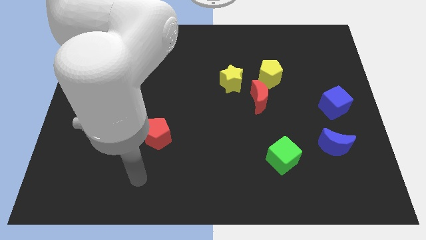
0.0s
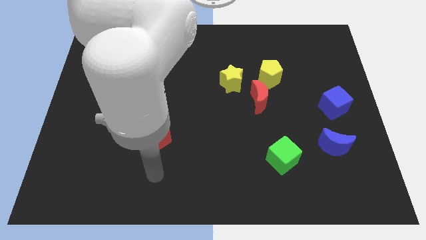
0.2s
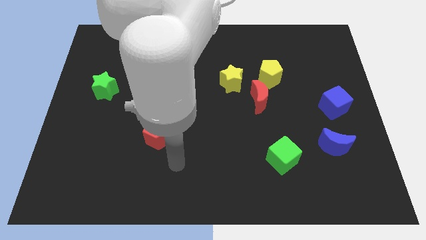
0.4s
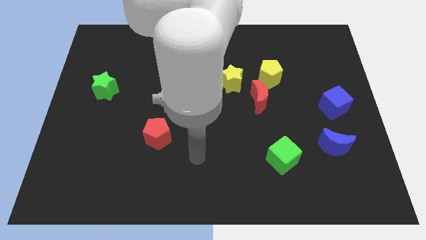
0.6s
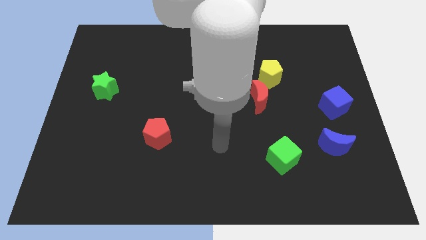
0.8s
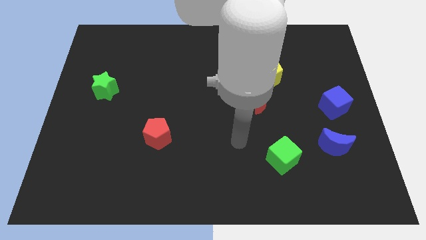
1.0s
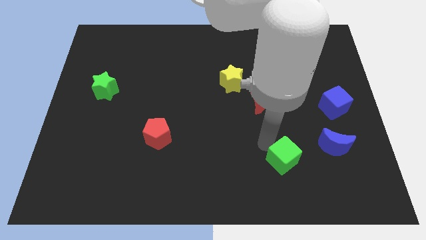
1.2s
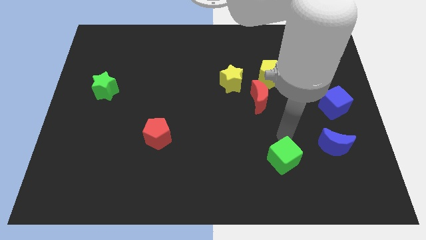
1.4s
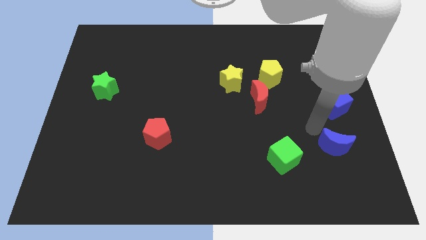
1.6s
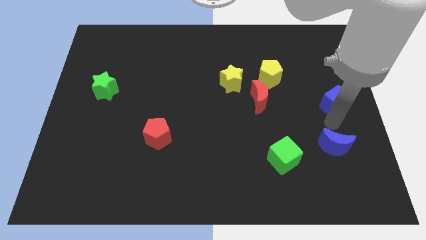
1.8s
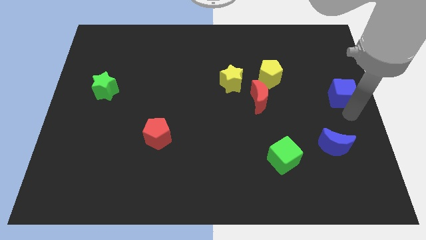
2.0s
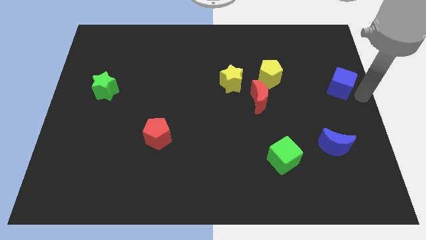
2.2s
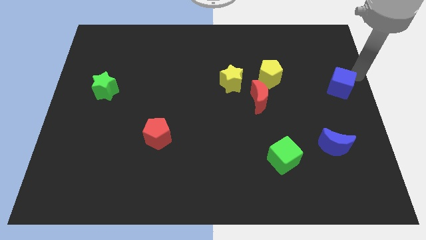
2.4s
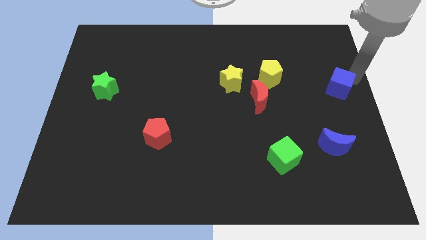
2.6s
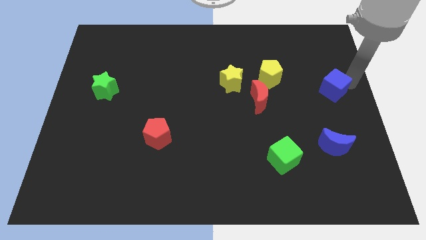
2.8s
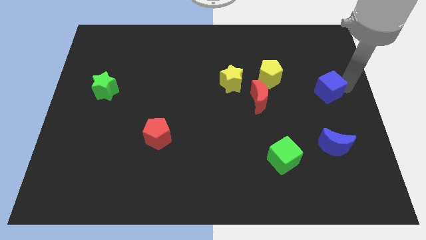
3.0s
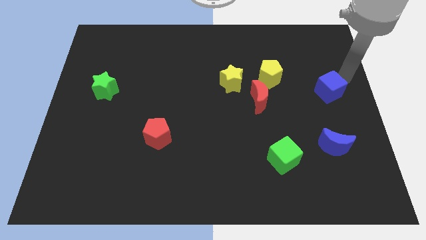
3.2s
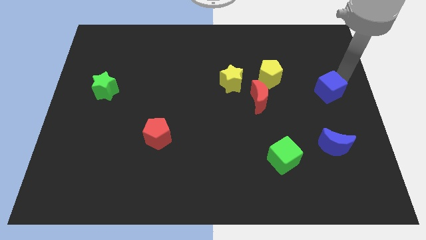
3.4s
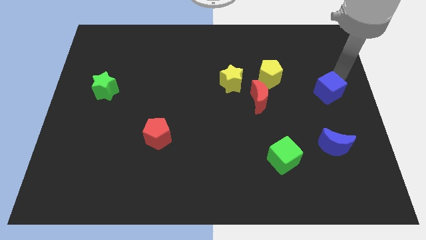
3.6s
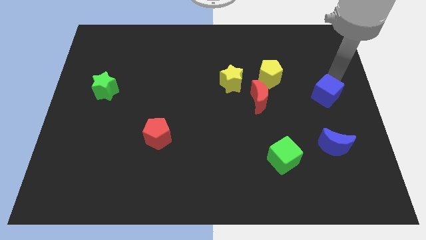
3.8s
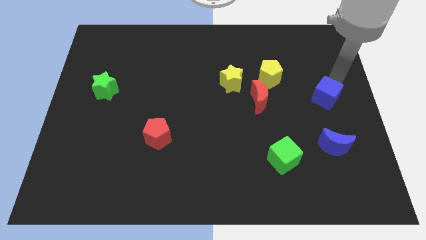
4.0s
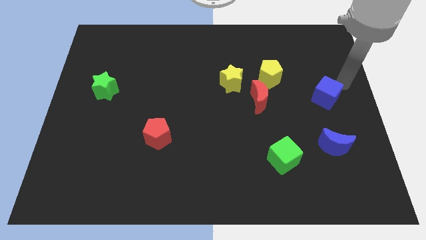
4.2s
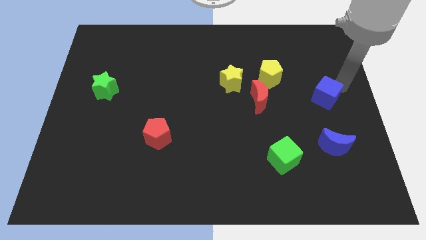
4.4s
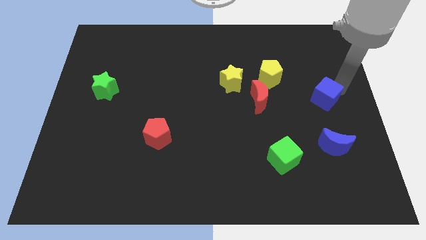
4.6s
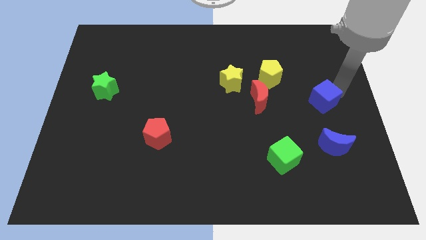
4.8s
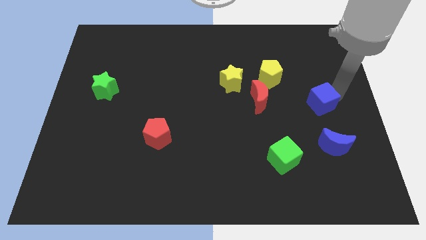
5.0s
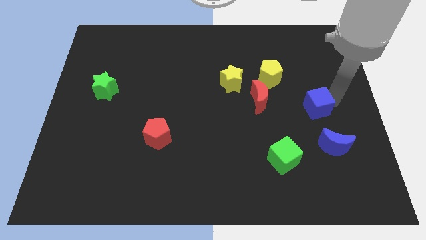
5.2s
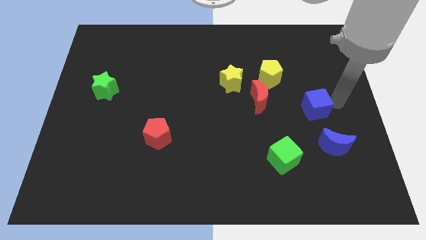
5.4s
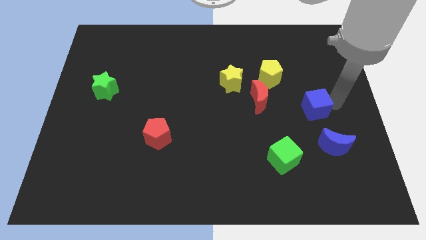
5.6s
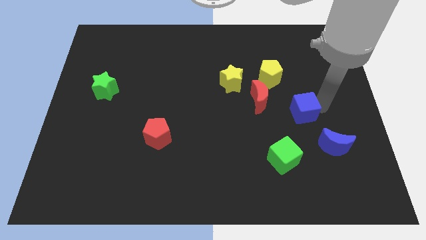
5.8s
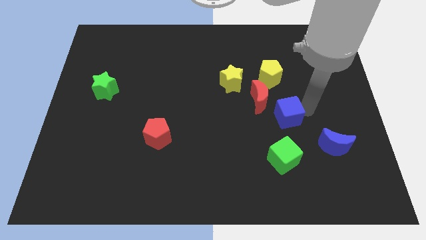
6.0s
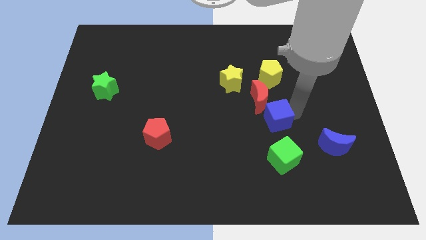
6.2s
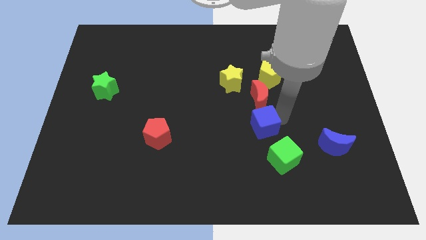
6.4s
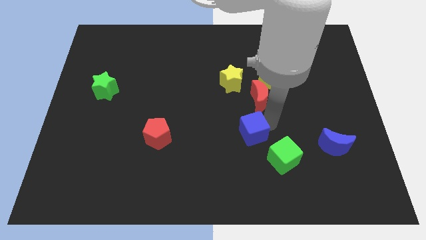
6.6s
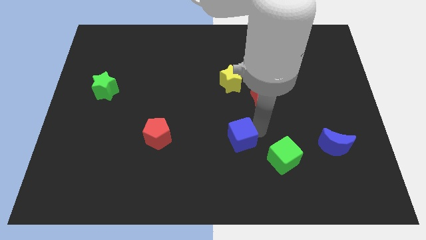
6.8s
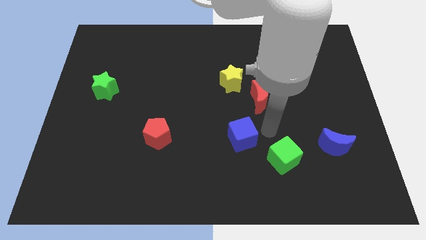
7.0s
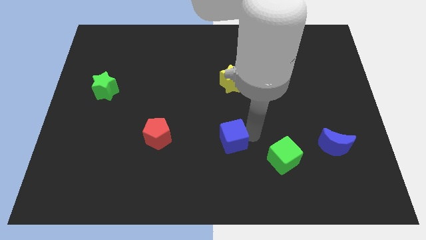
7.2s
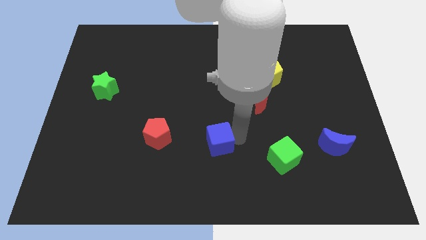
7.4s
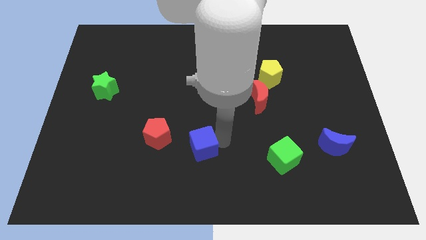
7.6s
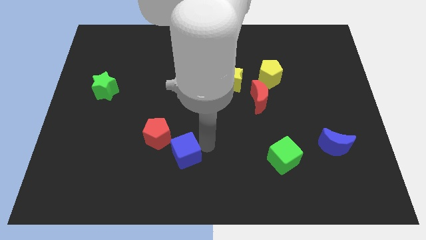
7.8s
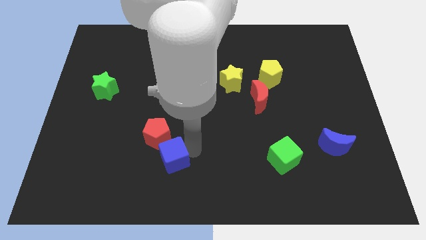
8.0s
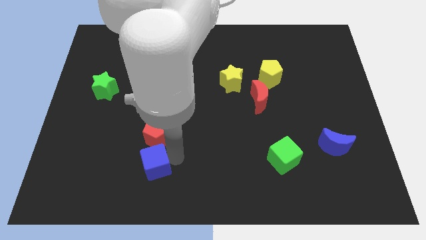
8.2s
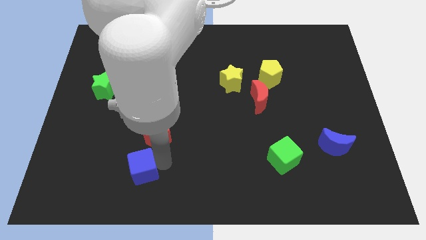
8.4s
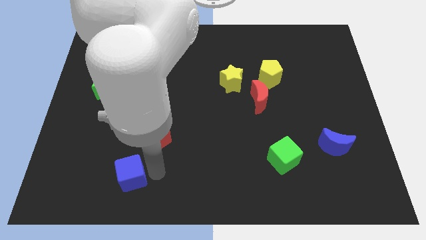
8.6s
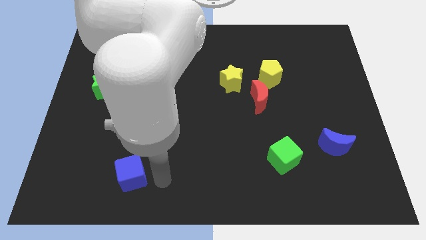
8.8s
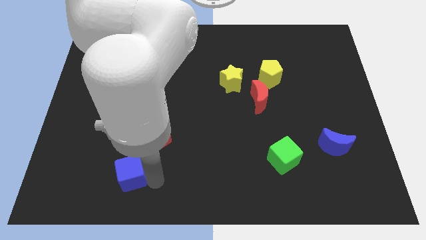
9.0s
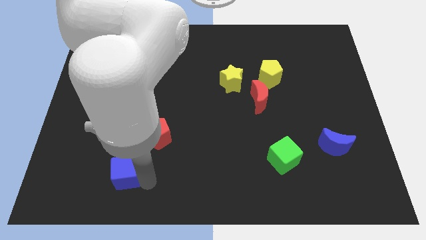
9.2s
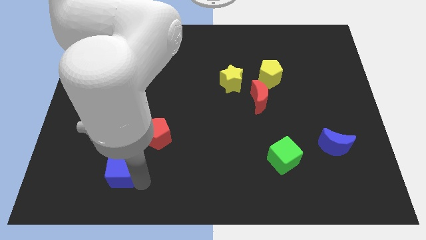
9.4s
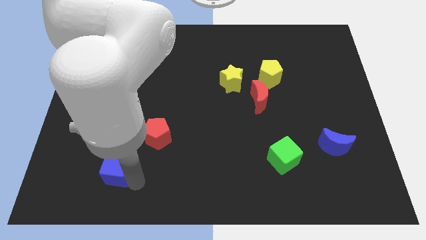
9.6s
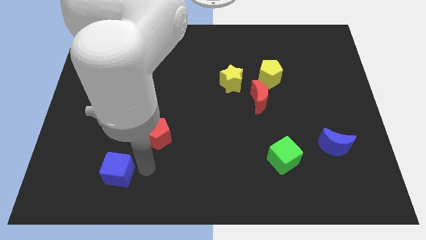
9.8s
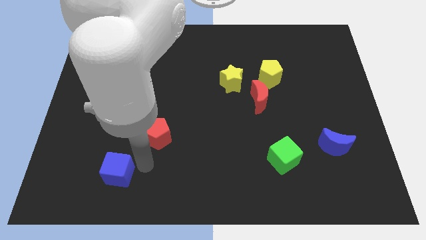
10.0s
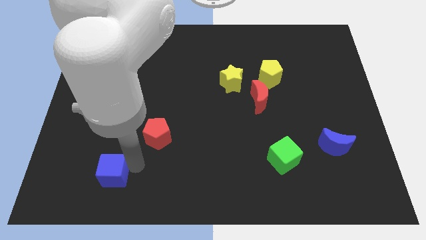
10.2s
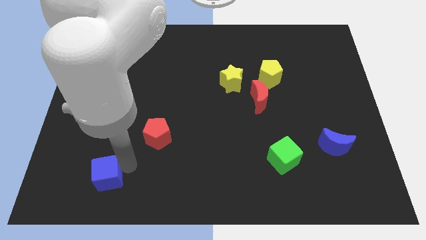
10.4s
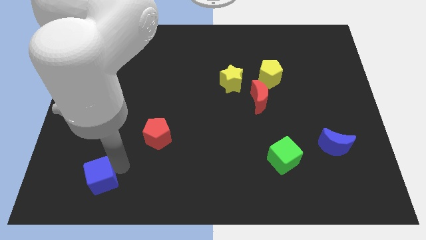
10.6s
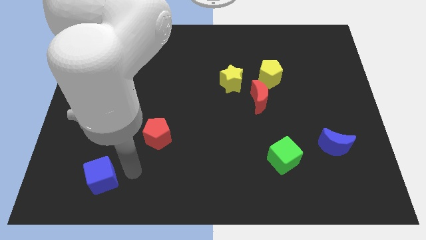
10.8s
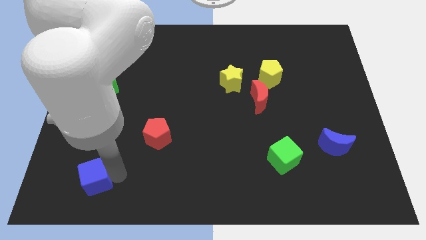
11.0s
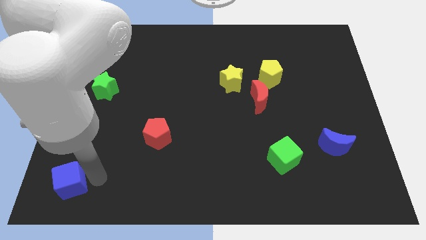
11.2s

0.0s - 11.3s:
move the blue cube to the lower left corner

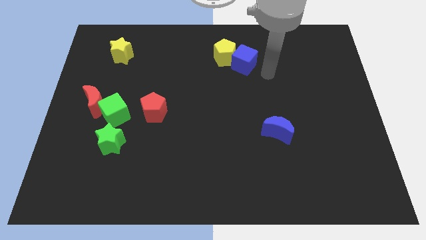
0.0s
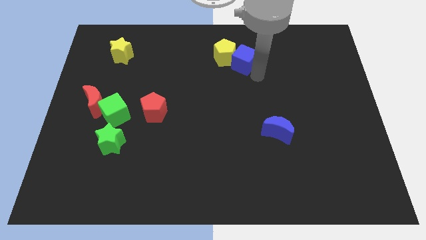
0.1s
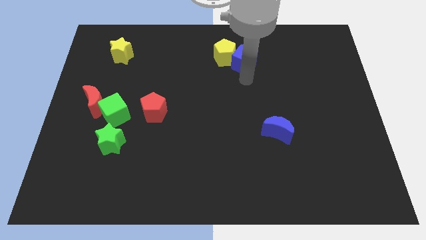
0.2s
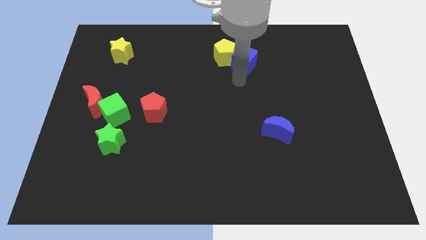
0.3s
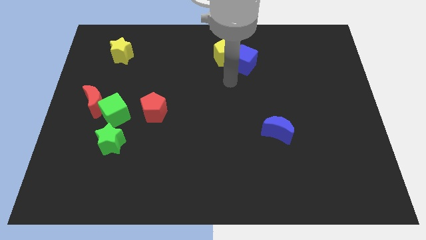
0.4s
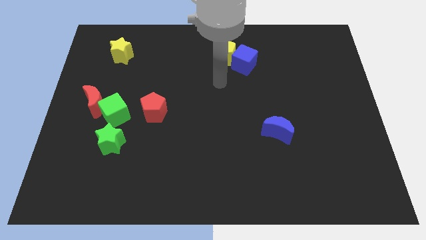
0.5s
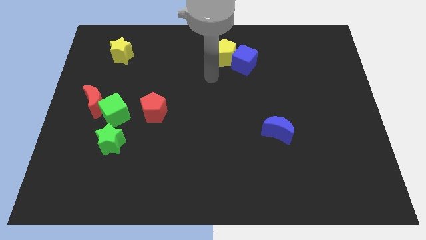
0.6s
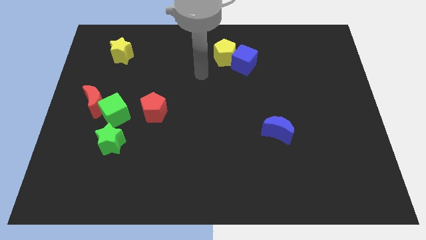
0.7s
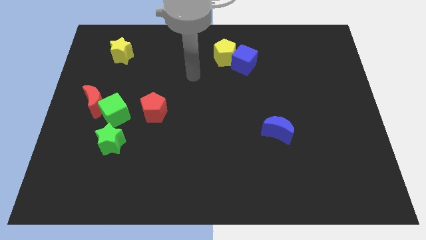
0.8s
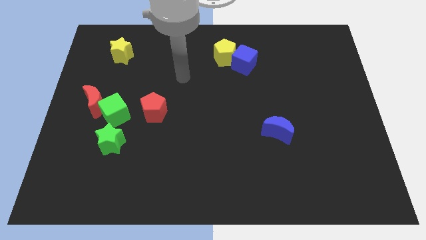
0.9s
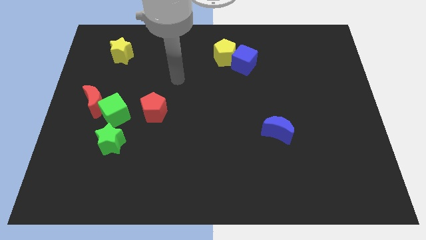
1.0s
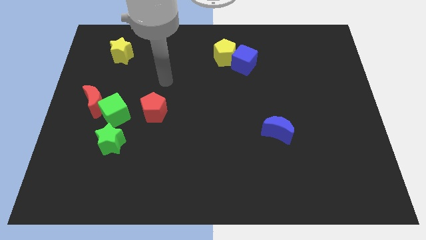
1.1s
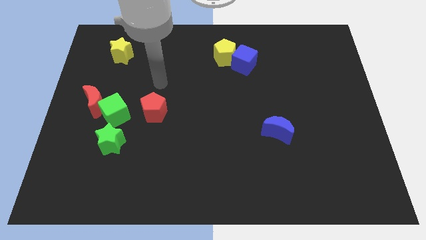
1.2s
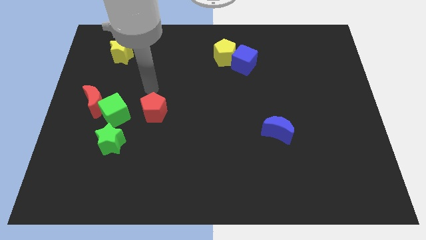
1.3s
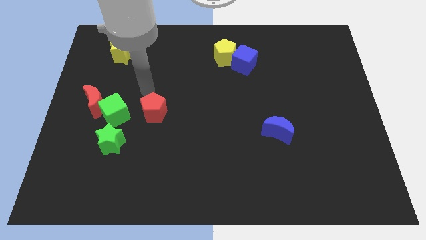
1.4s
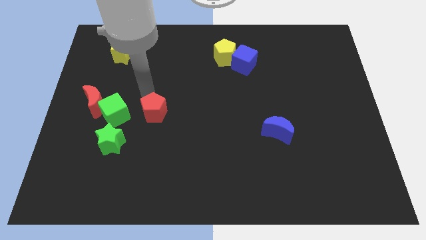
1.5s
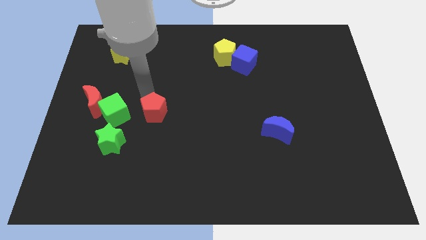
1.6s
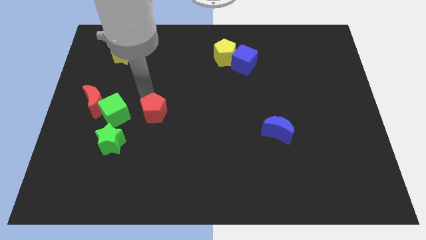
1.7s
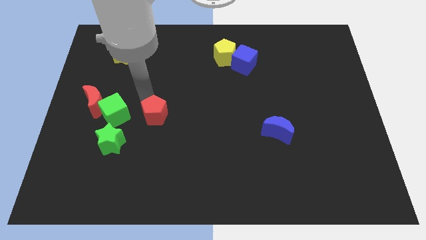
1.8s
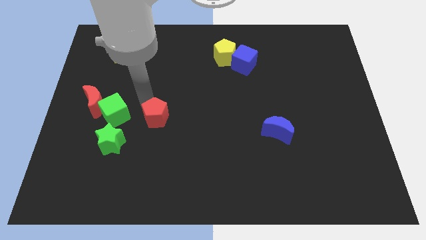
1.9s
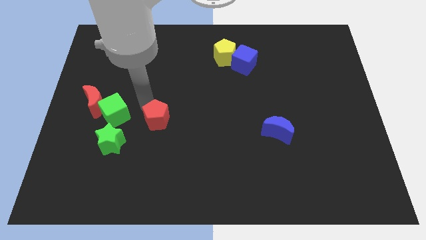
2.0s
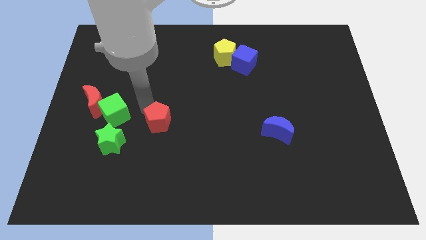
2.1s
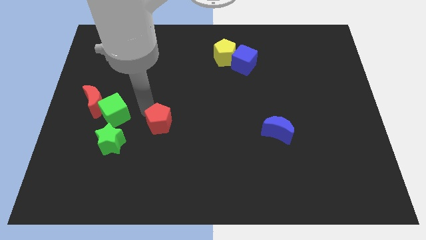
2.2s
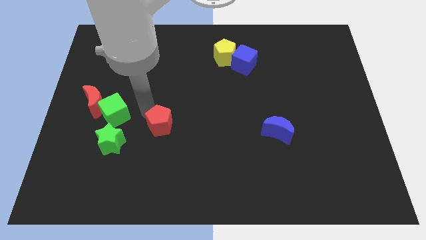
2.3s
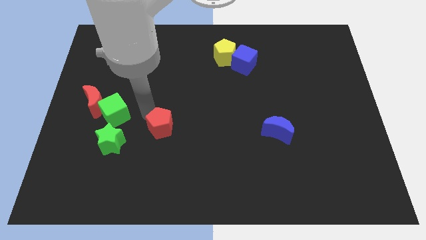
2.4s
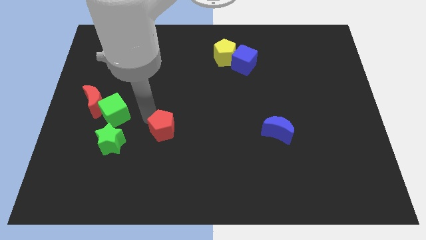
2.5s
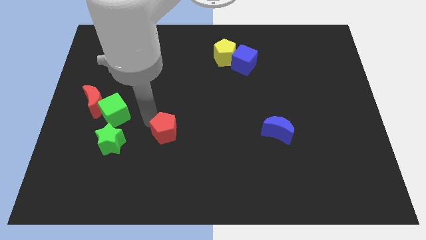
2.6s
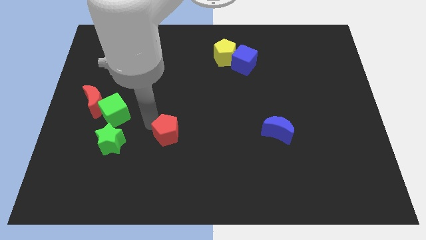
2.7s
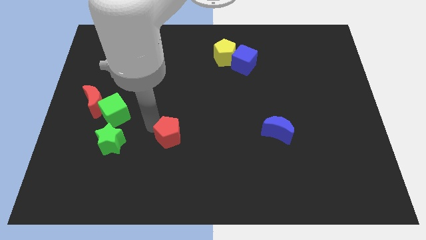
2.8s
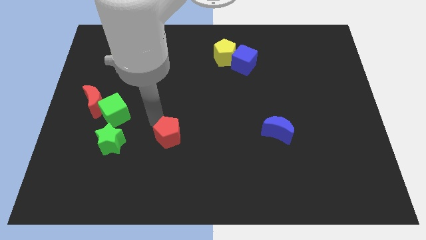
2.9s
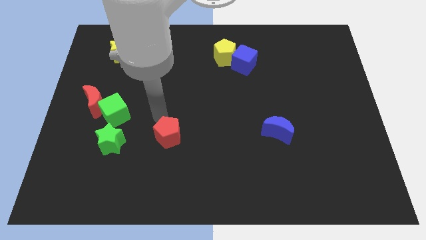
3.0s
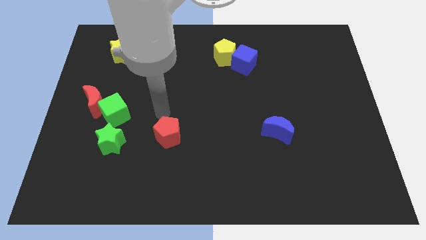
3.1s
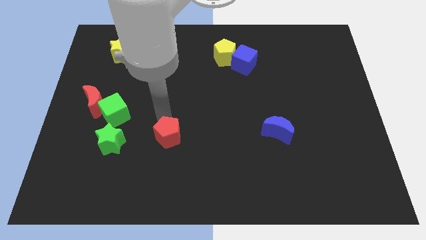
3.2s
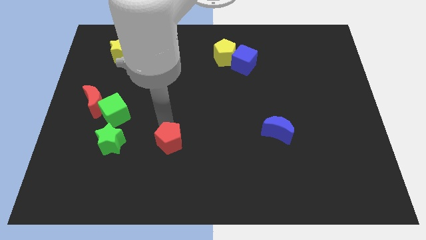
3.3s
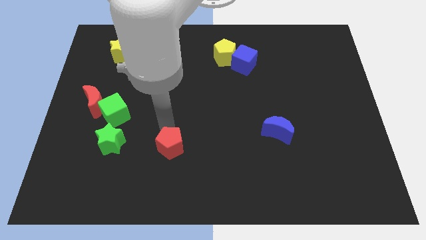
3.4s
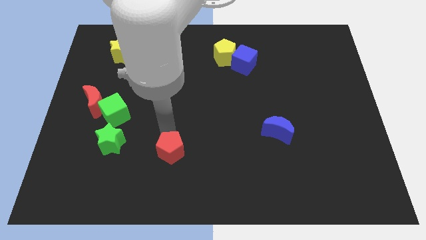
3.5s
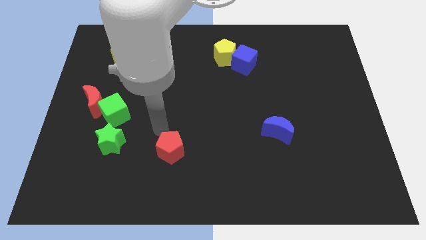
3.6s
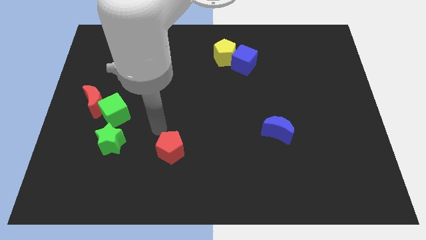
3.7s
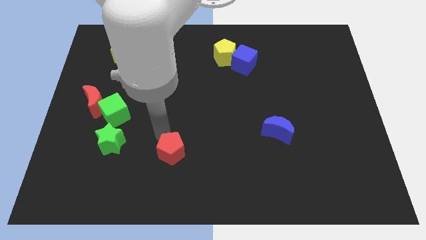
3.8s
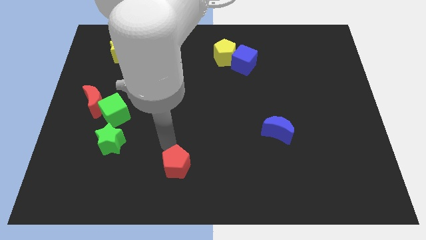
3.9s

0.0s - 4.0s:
put the red pentagon to the bottom side
